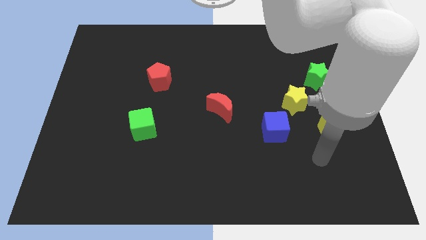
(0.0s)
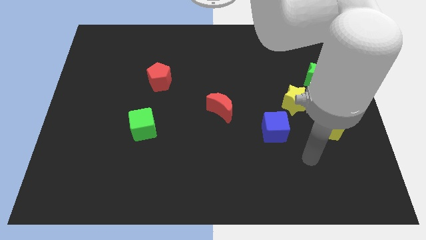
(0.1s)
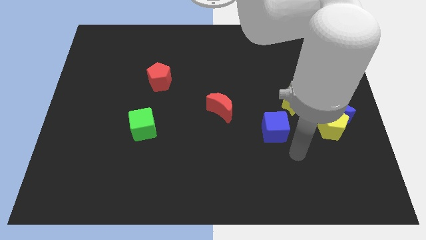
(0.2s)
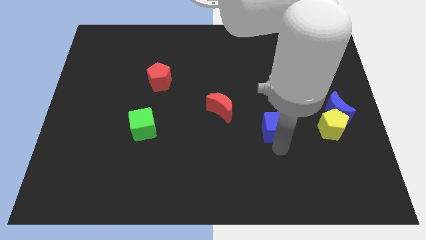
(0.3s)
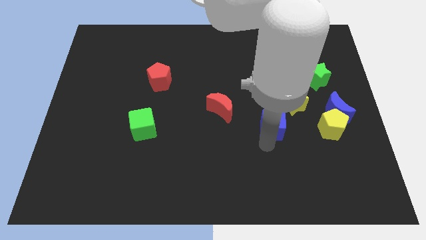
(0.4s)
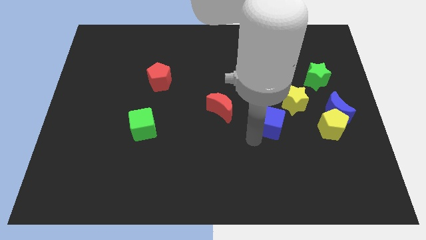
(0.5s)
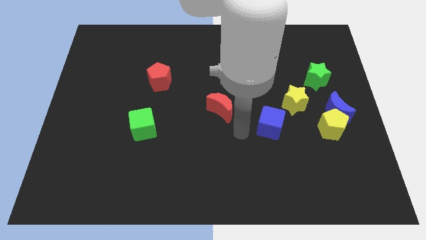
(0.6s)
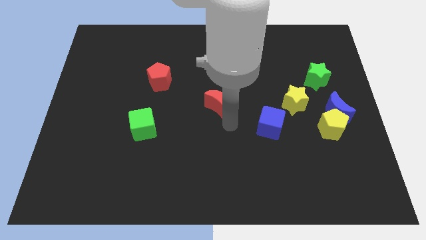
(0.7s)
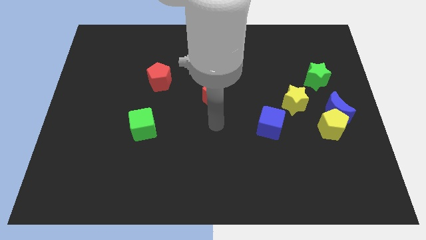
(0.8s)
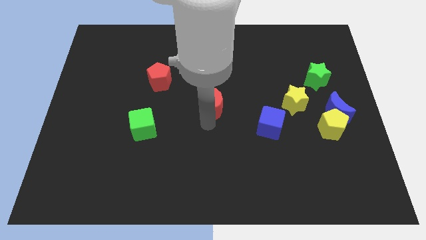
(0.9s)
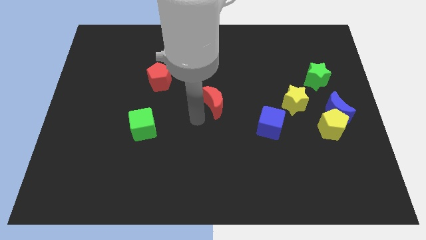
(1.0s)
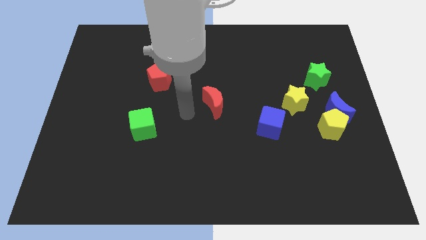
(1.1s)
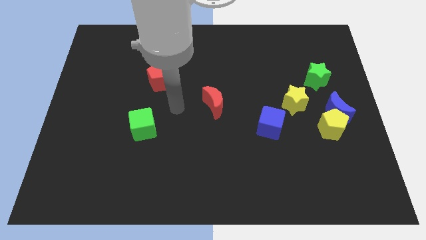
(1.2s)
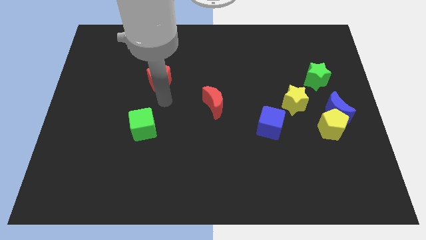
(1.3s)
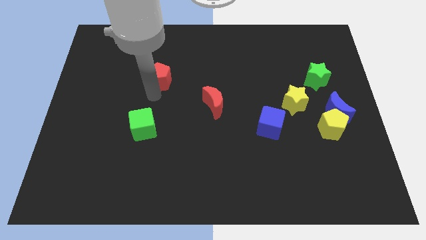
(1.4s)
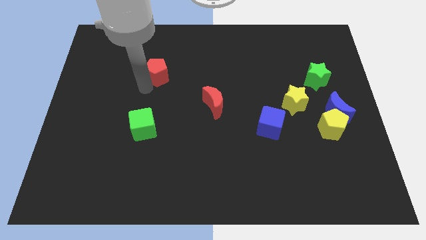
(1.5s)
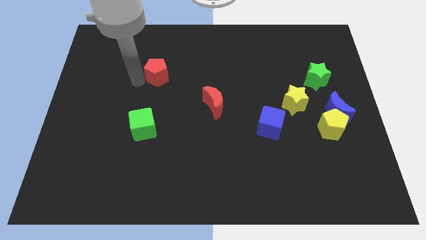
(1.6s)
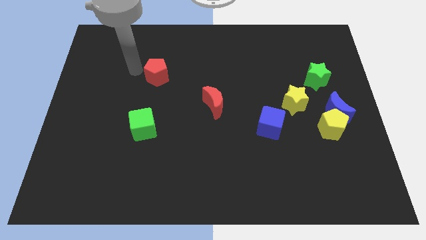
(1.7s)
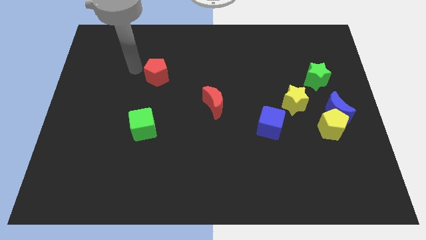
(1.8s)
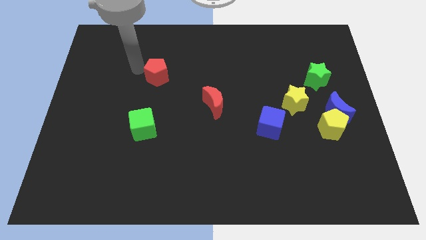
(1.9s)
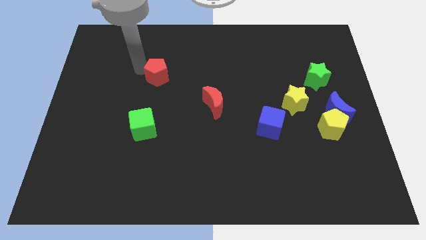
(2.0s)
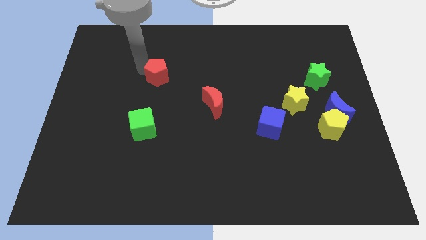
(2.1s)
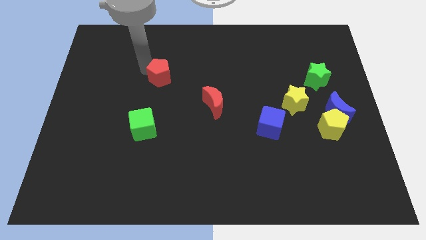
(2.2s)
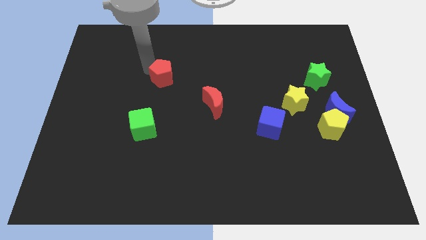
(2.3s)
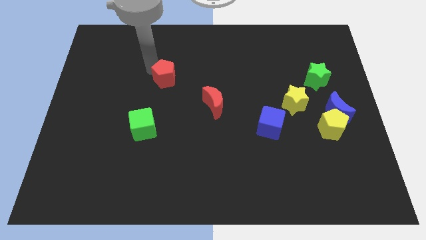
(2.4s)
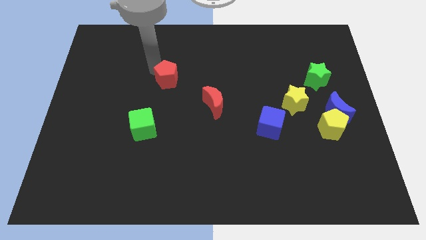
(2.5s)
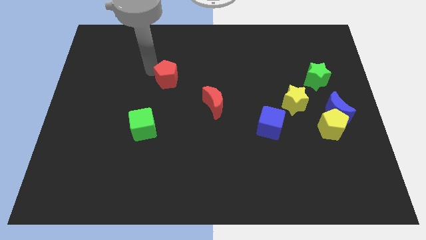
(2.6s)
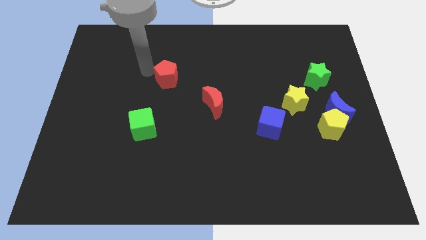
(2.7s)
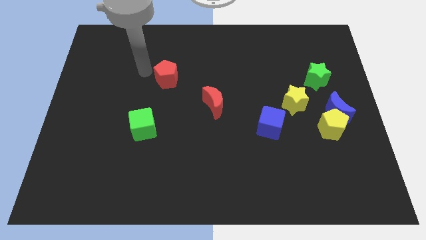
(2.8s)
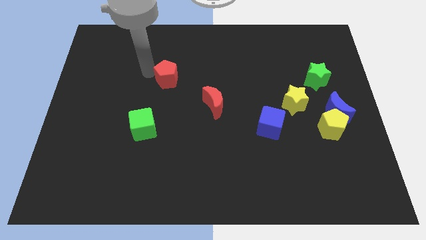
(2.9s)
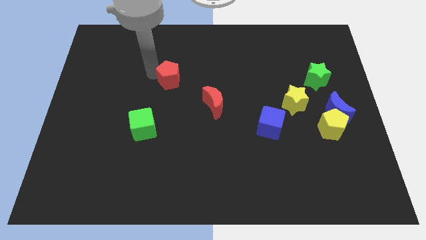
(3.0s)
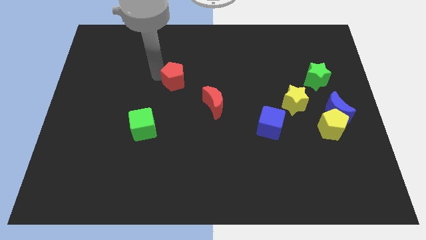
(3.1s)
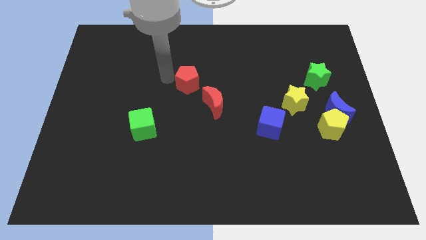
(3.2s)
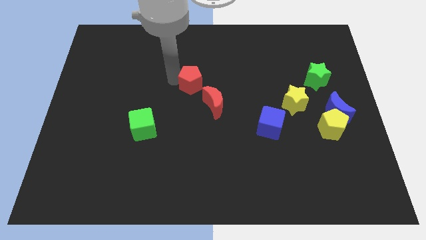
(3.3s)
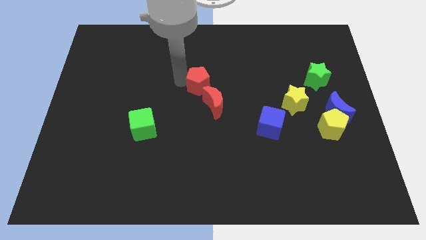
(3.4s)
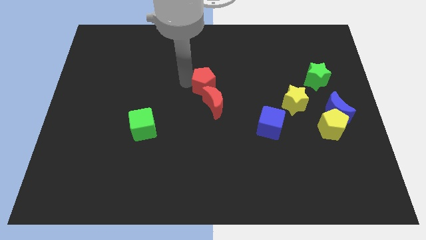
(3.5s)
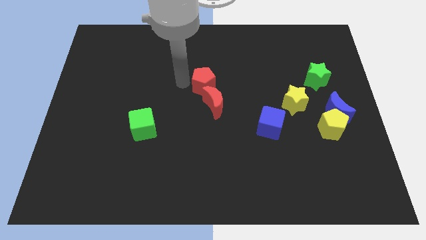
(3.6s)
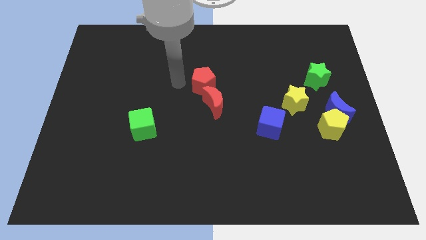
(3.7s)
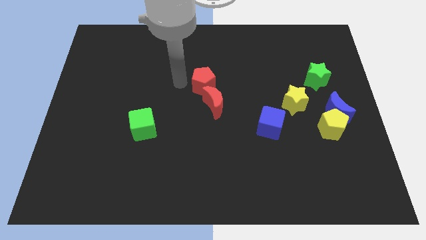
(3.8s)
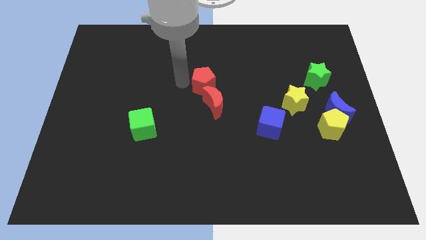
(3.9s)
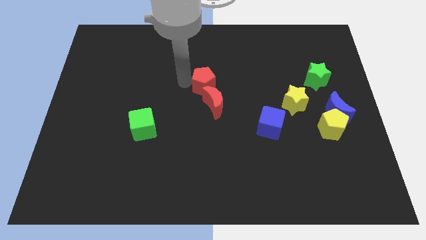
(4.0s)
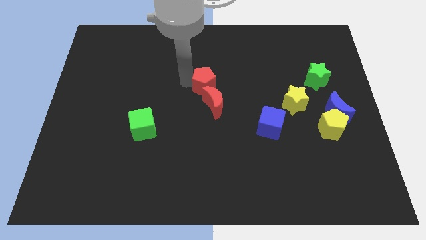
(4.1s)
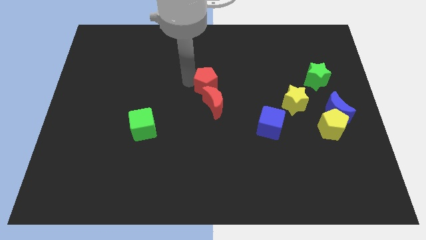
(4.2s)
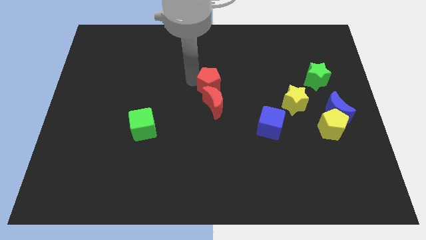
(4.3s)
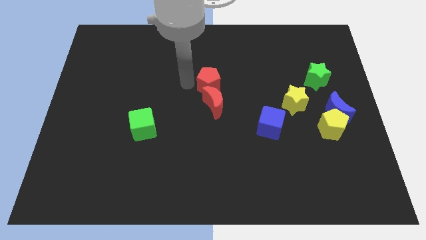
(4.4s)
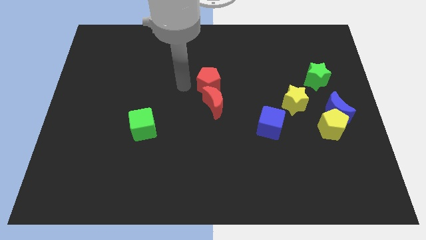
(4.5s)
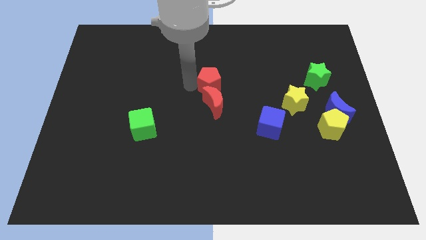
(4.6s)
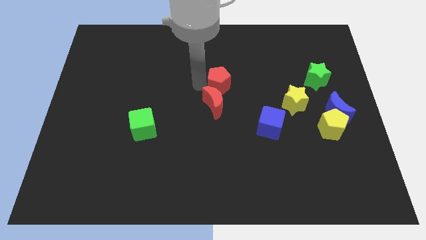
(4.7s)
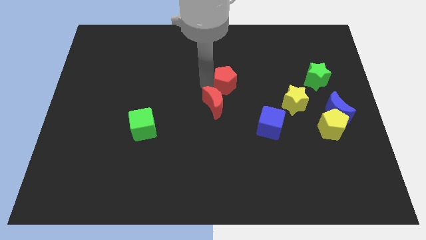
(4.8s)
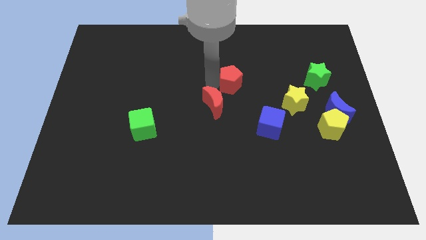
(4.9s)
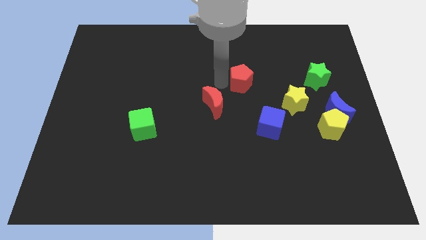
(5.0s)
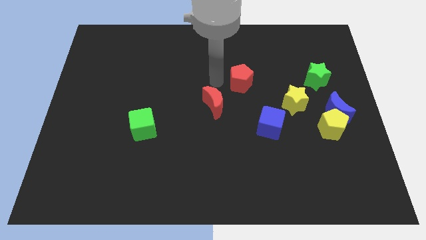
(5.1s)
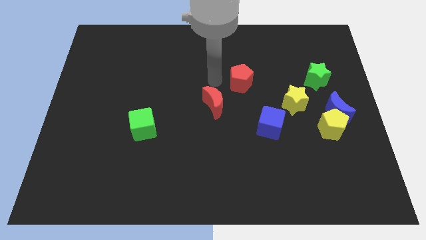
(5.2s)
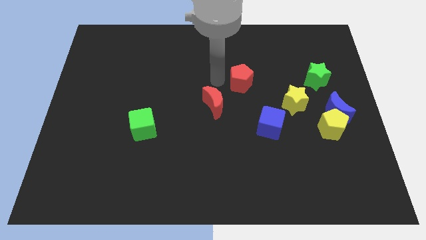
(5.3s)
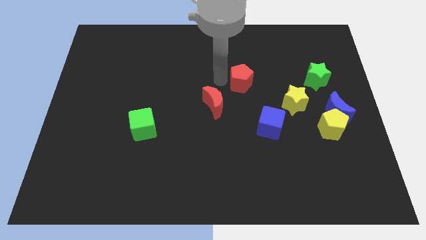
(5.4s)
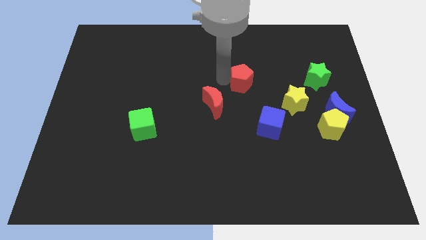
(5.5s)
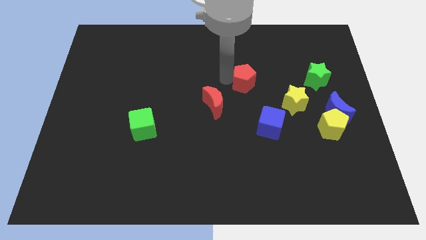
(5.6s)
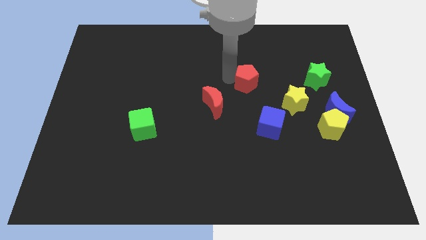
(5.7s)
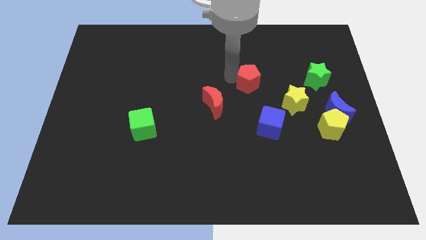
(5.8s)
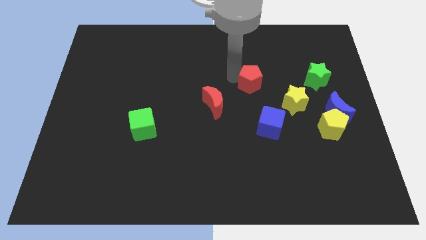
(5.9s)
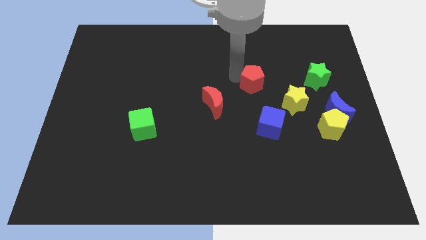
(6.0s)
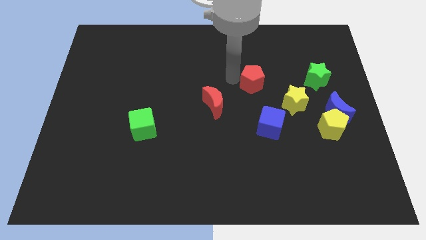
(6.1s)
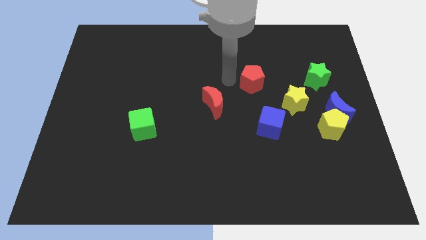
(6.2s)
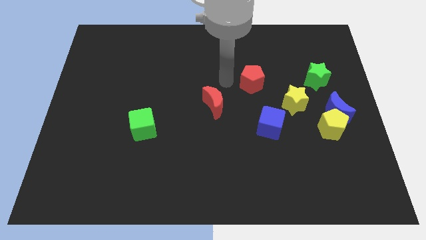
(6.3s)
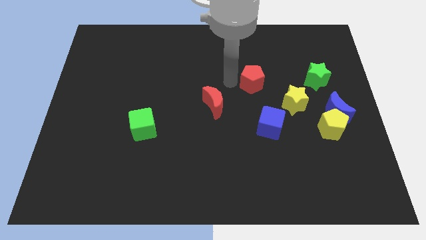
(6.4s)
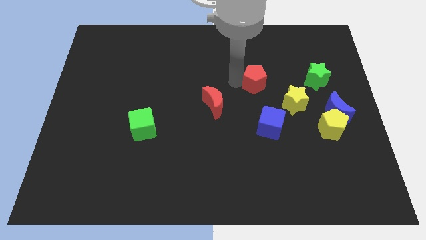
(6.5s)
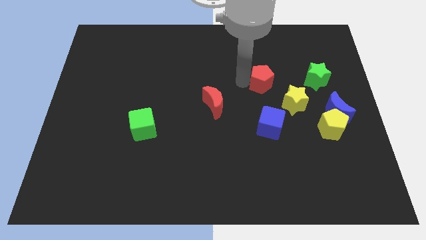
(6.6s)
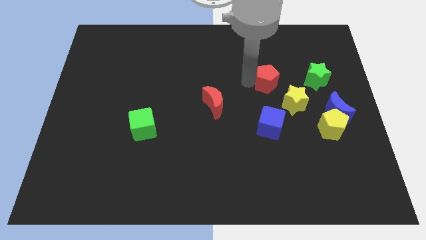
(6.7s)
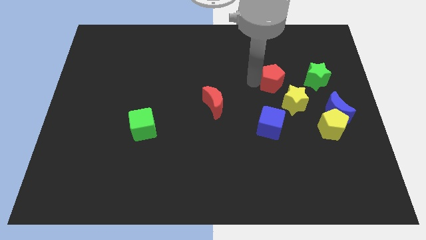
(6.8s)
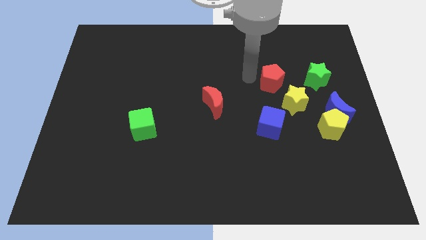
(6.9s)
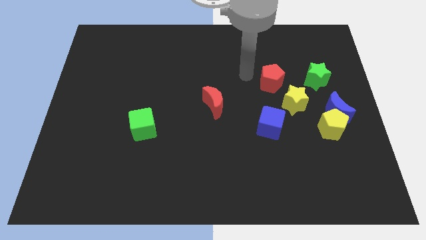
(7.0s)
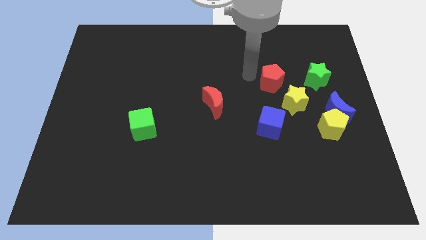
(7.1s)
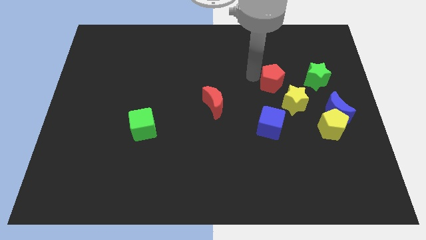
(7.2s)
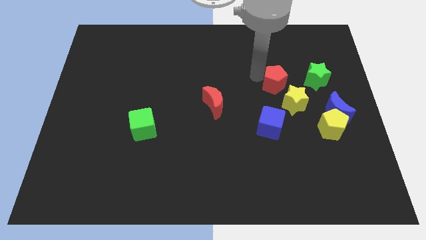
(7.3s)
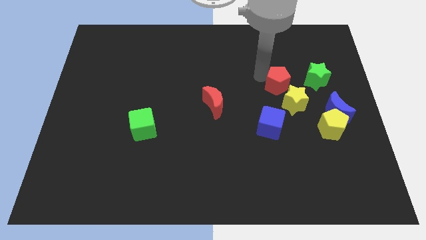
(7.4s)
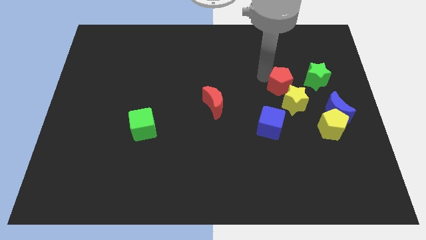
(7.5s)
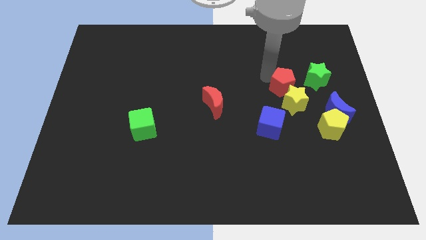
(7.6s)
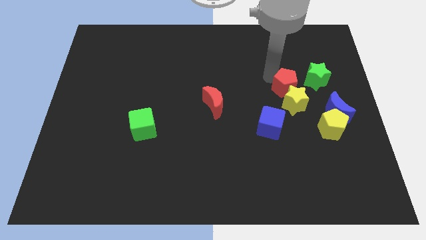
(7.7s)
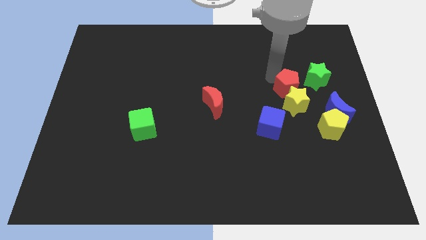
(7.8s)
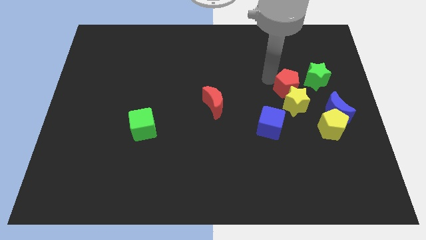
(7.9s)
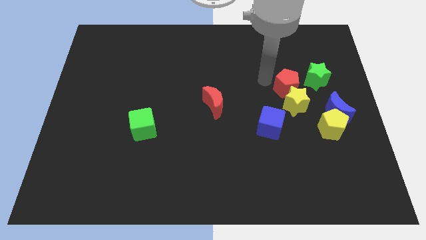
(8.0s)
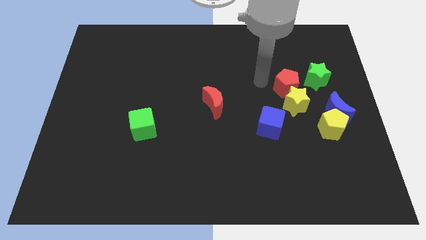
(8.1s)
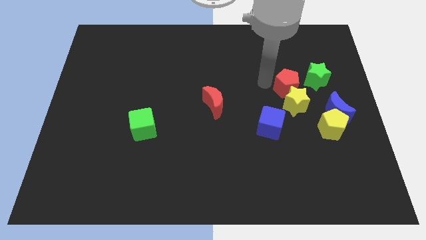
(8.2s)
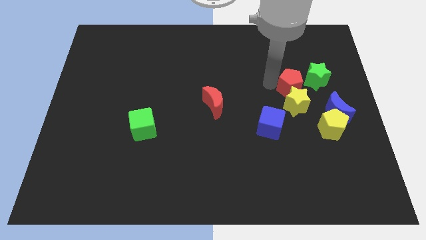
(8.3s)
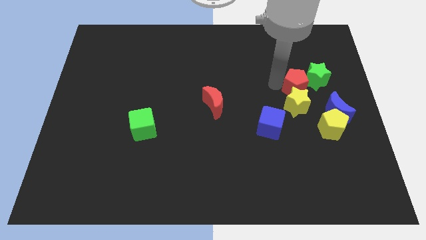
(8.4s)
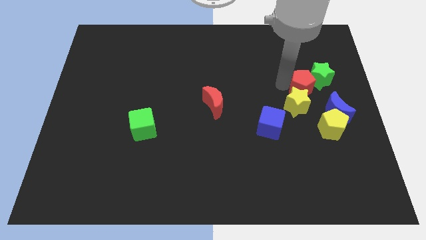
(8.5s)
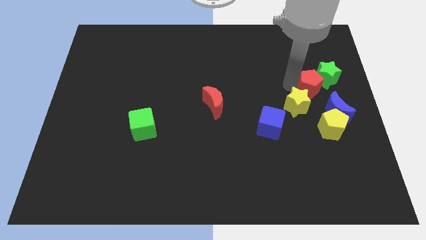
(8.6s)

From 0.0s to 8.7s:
push the red pentagon to the top of the yellow pentagon
